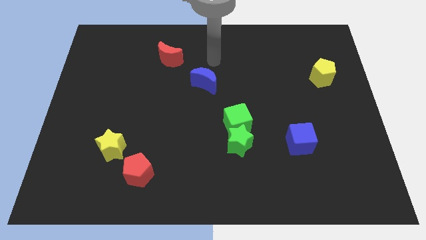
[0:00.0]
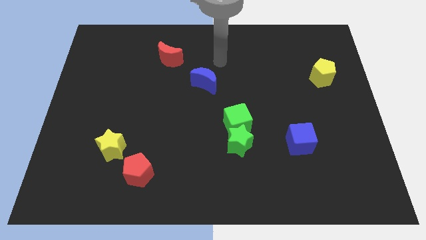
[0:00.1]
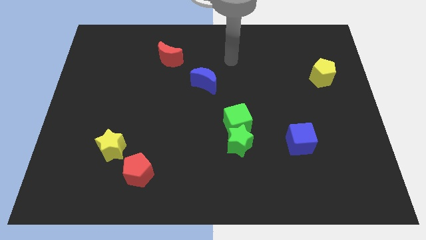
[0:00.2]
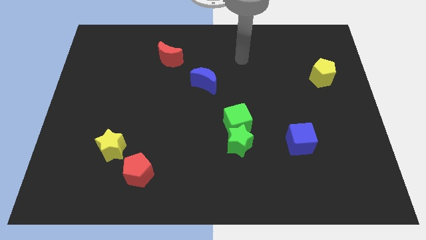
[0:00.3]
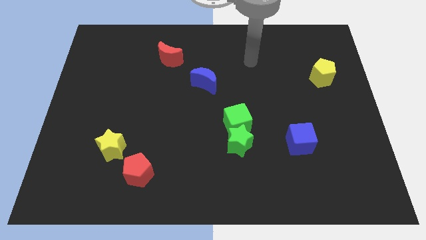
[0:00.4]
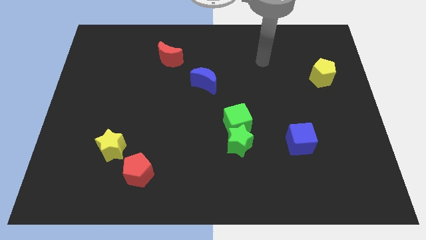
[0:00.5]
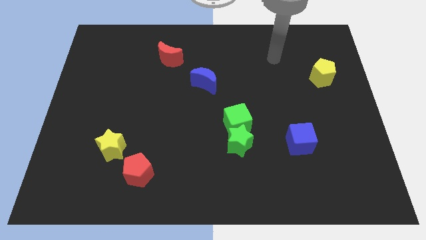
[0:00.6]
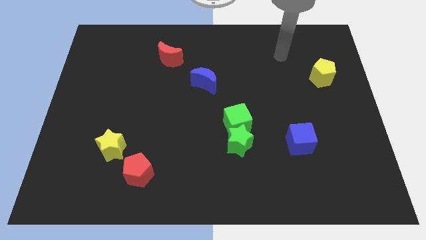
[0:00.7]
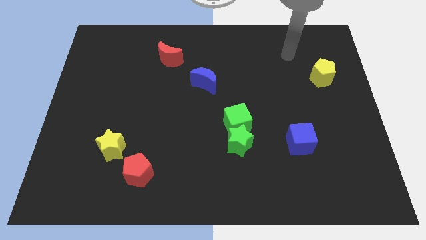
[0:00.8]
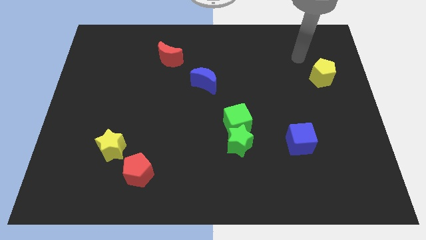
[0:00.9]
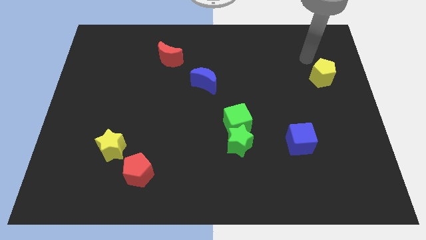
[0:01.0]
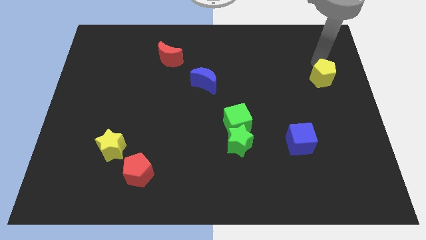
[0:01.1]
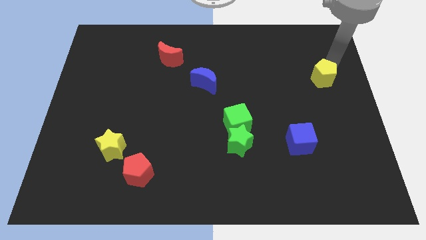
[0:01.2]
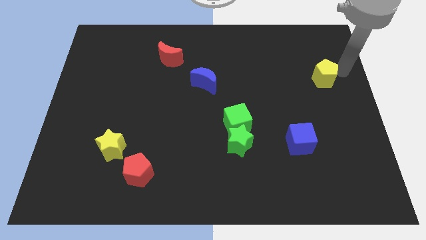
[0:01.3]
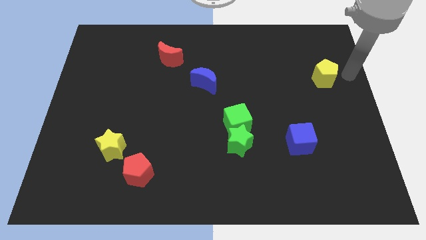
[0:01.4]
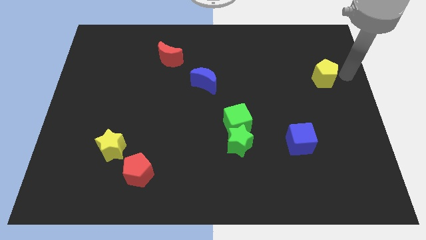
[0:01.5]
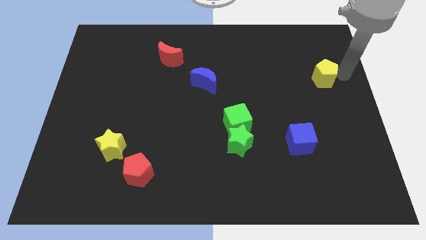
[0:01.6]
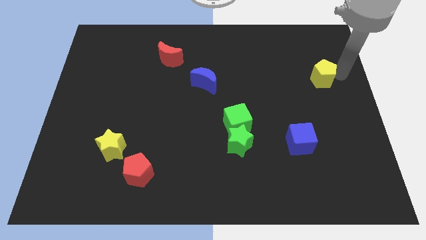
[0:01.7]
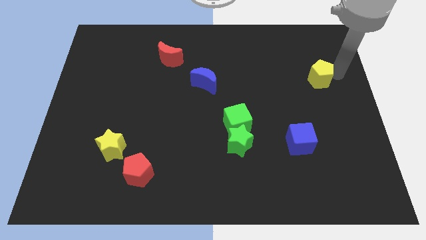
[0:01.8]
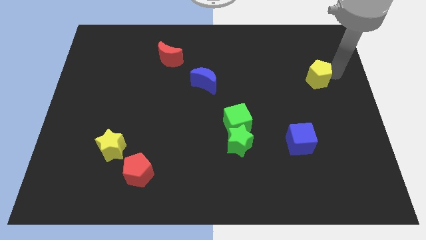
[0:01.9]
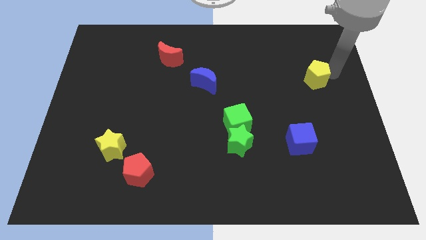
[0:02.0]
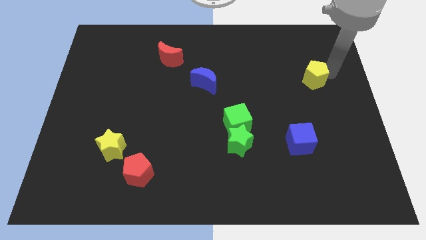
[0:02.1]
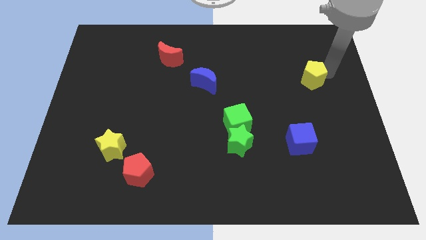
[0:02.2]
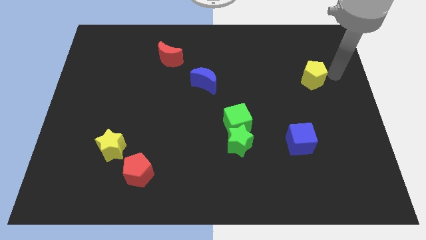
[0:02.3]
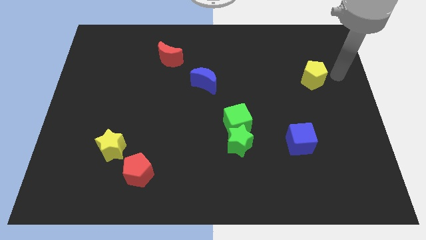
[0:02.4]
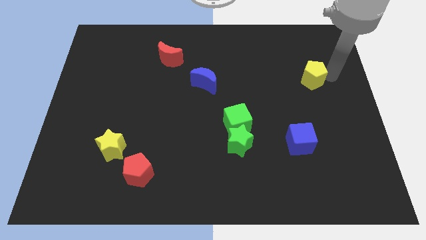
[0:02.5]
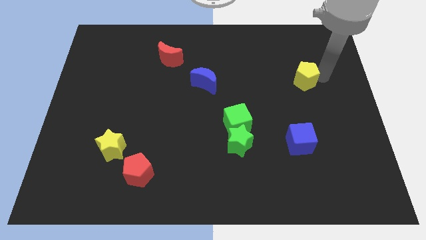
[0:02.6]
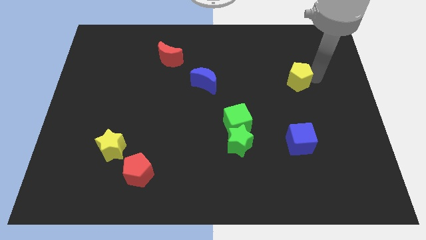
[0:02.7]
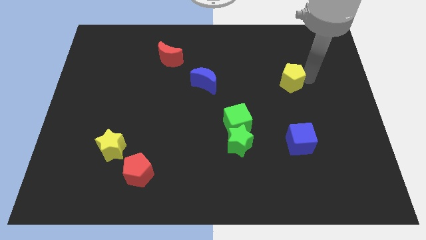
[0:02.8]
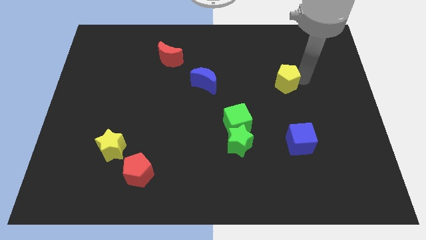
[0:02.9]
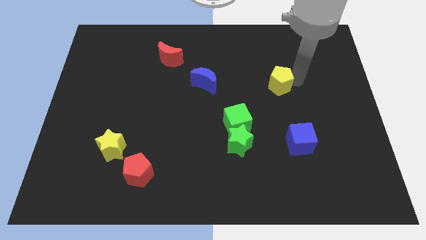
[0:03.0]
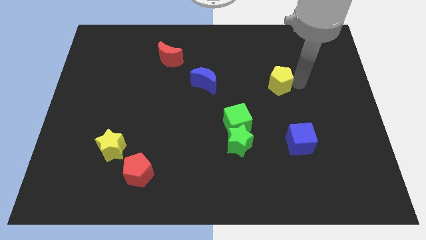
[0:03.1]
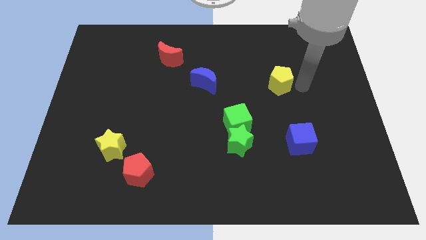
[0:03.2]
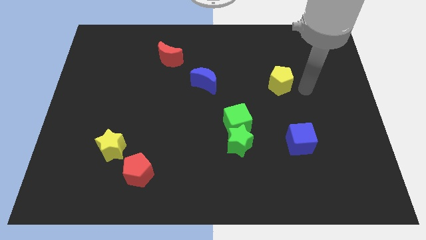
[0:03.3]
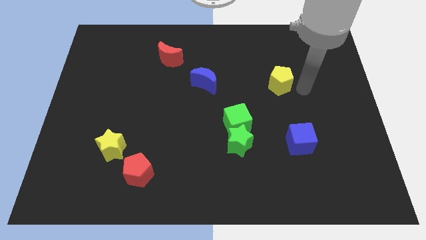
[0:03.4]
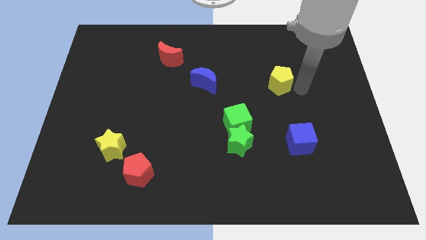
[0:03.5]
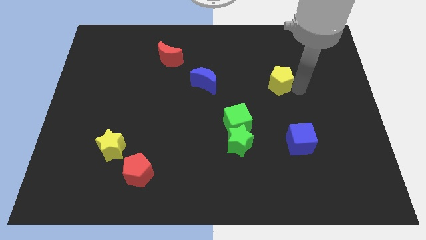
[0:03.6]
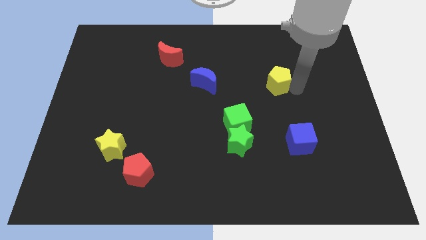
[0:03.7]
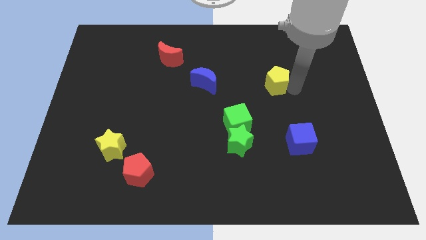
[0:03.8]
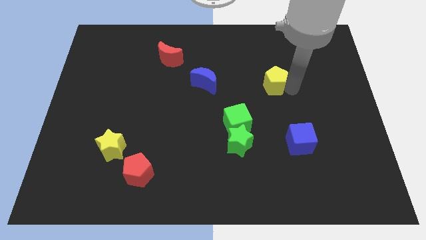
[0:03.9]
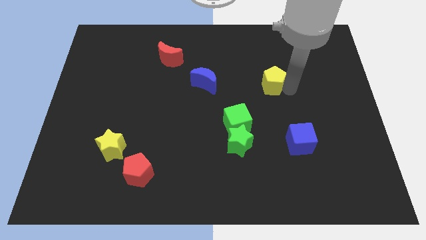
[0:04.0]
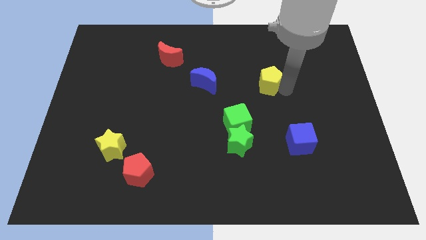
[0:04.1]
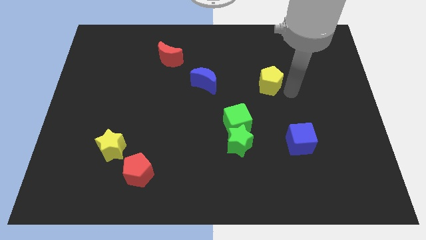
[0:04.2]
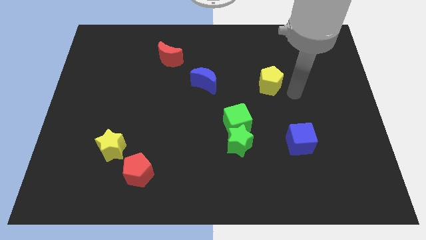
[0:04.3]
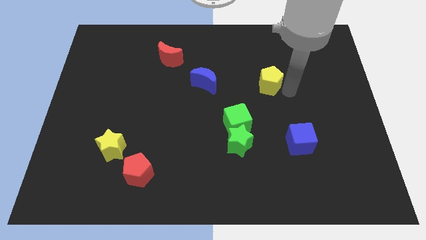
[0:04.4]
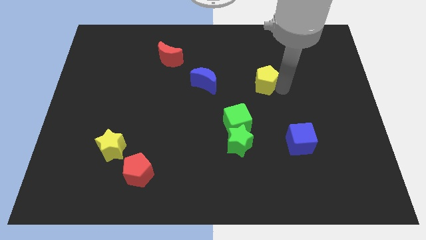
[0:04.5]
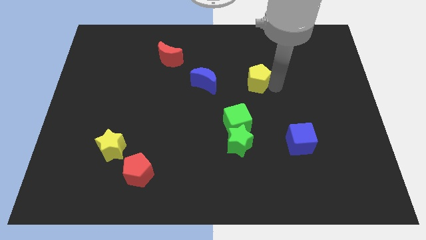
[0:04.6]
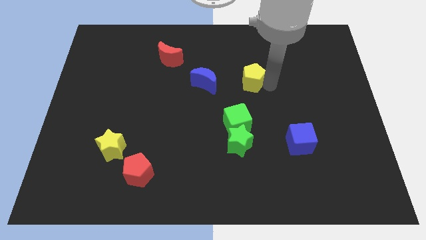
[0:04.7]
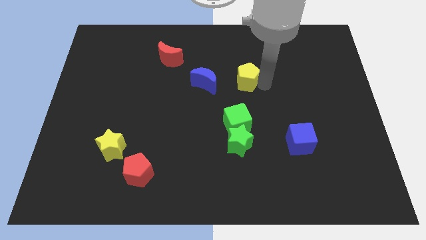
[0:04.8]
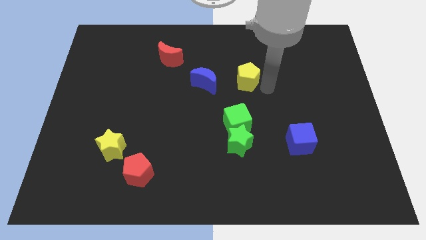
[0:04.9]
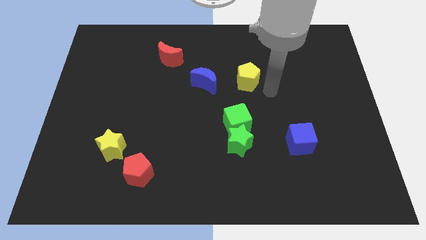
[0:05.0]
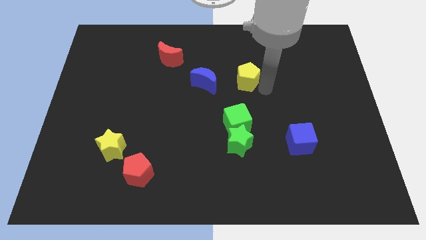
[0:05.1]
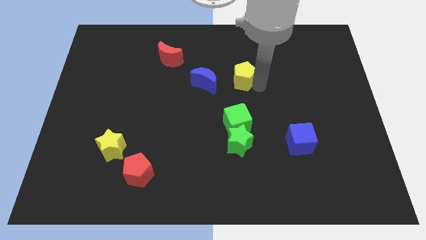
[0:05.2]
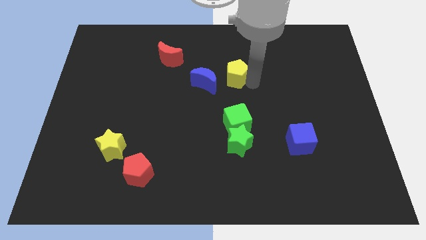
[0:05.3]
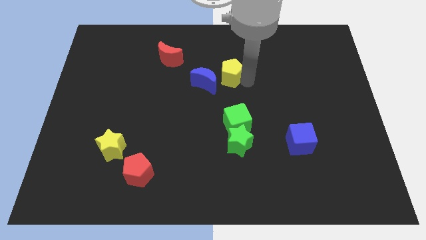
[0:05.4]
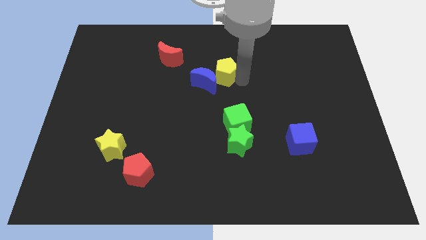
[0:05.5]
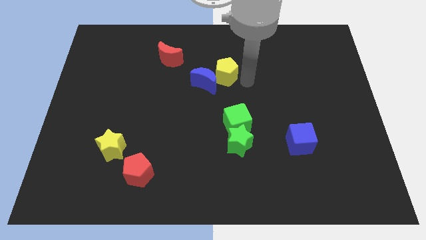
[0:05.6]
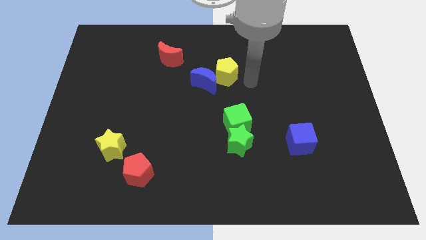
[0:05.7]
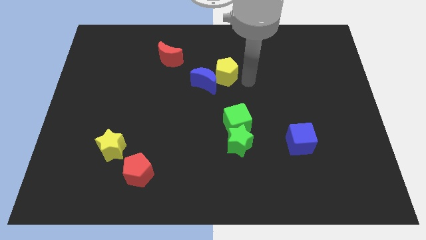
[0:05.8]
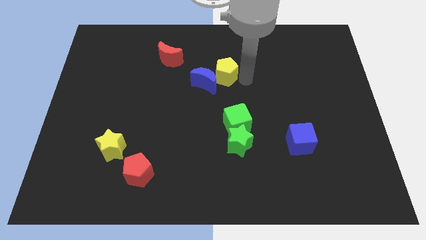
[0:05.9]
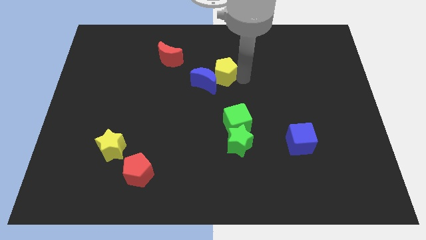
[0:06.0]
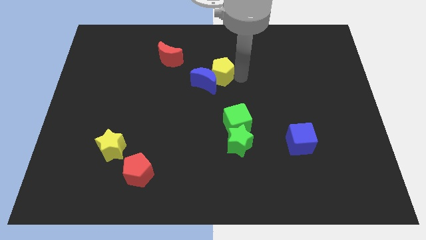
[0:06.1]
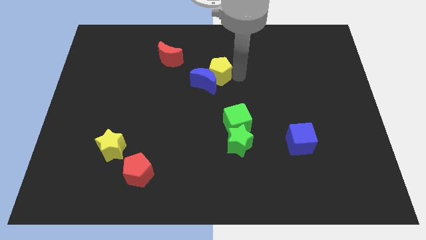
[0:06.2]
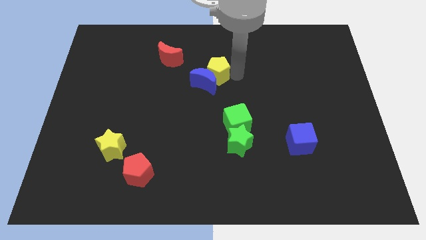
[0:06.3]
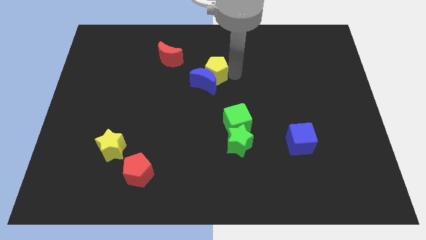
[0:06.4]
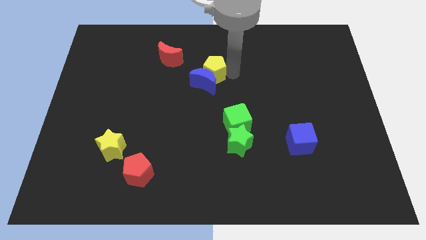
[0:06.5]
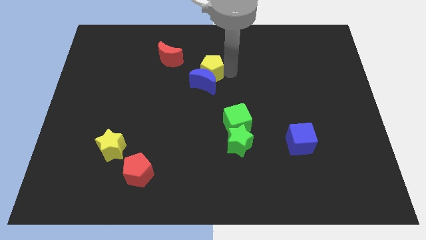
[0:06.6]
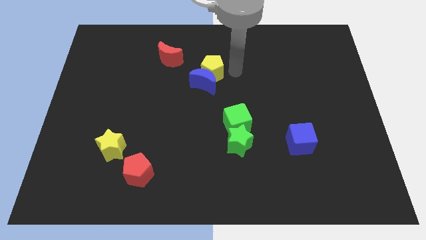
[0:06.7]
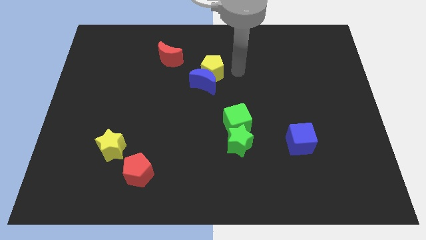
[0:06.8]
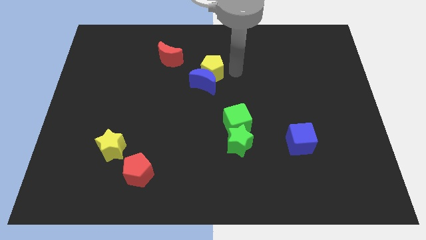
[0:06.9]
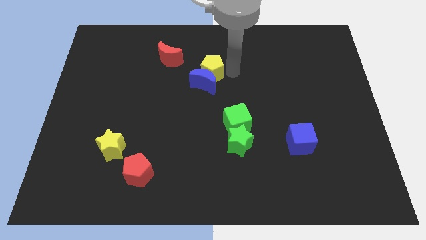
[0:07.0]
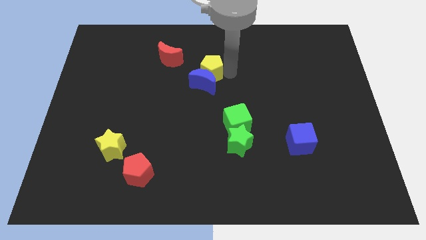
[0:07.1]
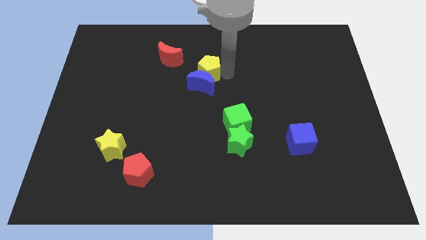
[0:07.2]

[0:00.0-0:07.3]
put the yellow pentagon to the bottom right of the red moon

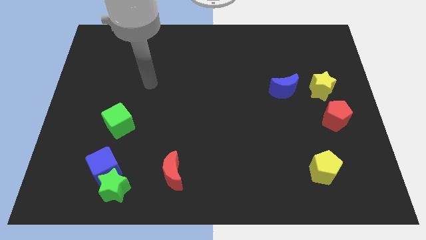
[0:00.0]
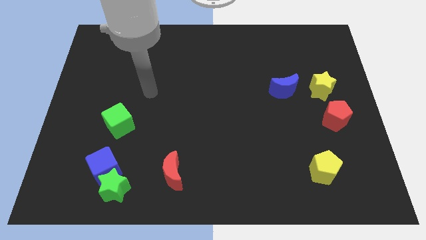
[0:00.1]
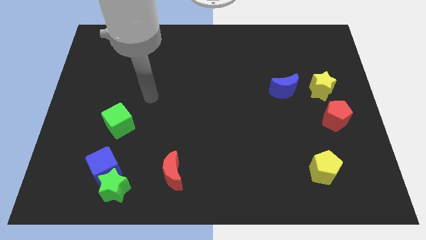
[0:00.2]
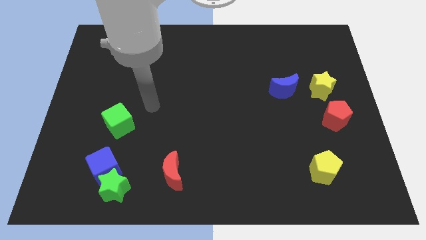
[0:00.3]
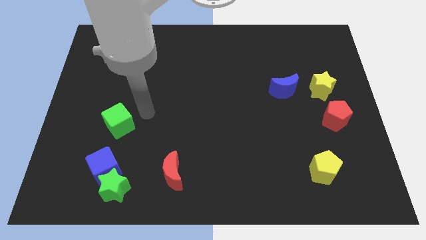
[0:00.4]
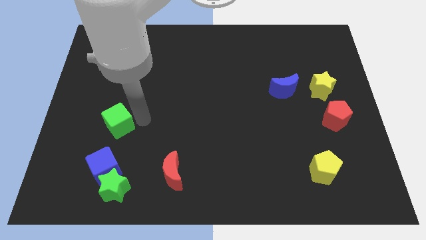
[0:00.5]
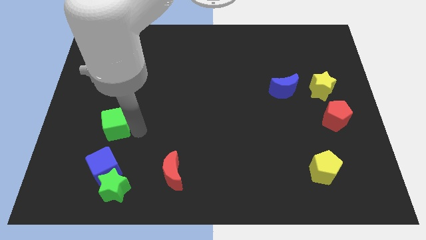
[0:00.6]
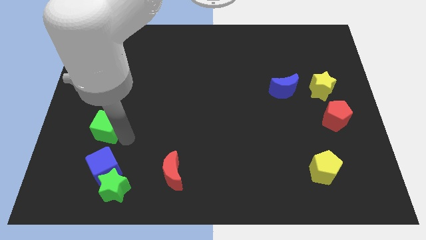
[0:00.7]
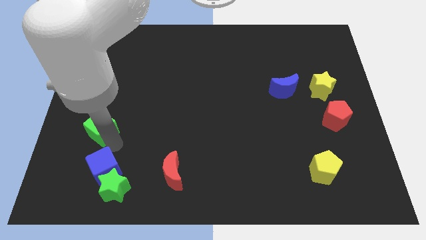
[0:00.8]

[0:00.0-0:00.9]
put the blue cube to the bottom right of the green cube
